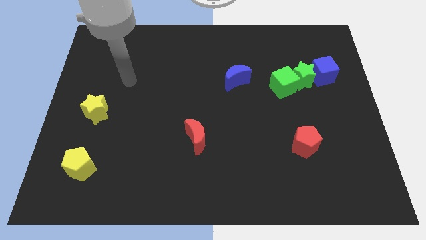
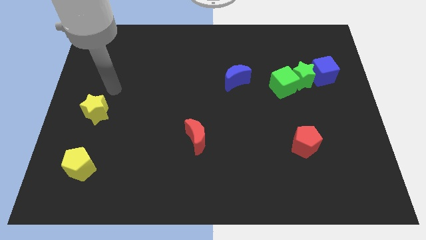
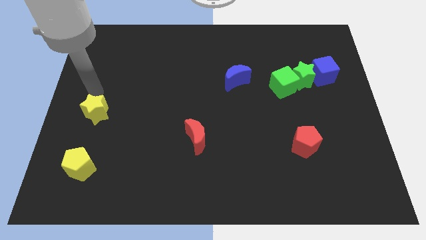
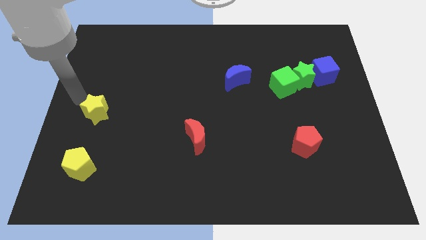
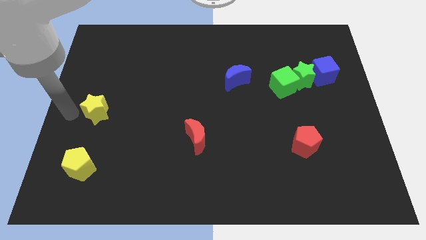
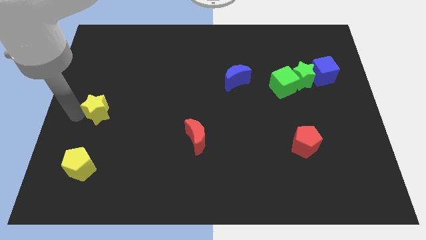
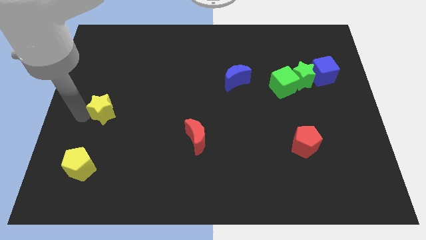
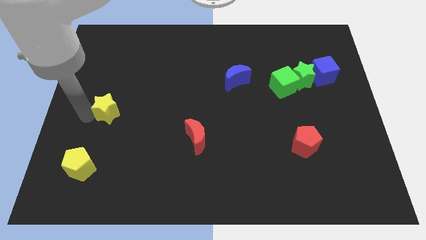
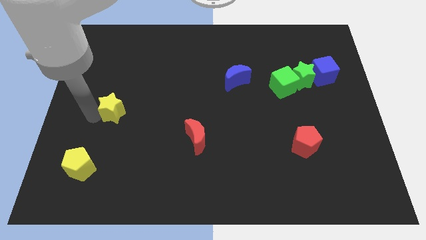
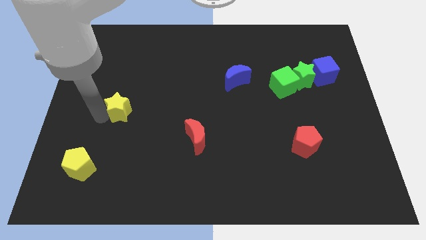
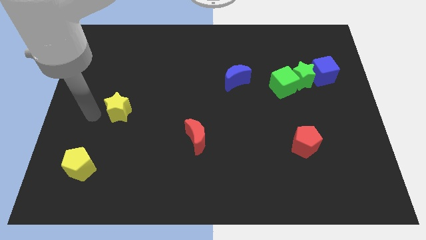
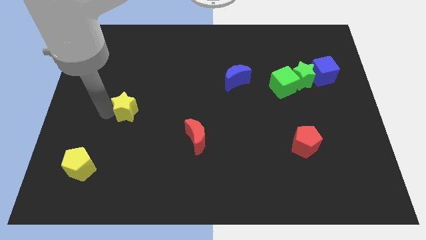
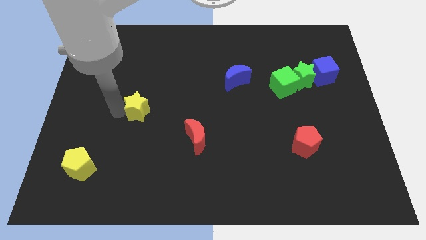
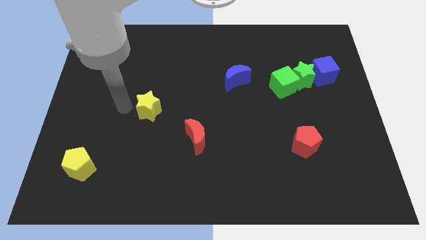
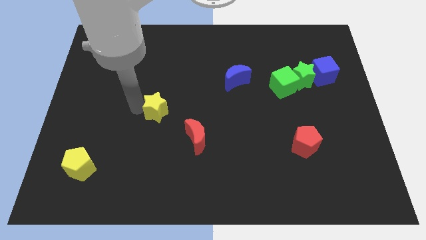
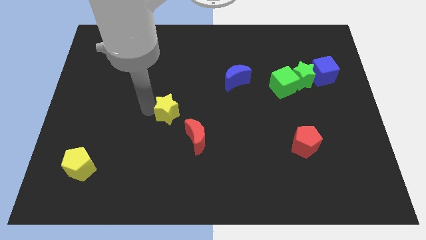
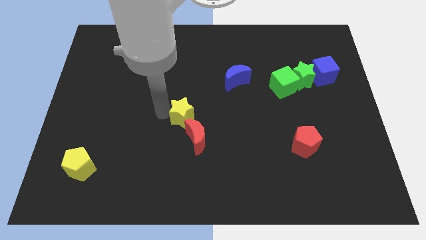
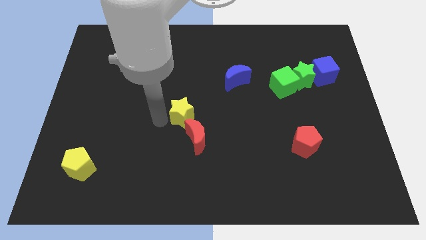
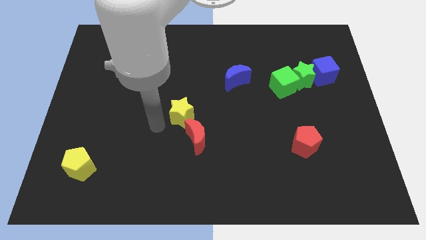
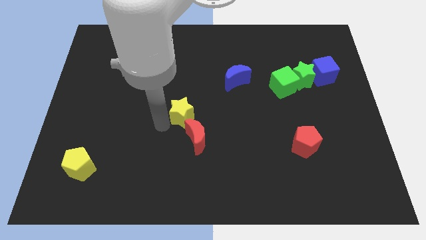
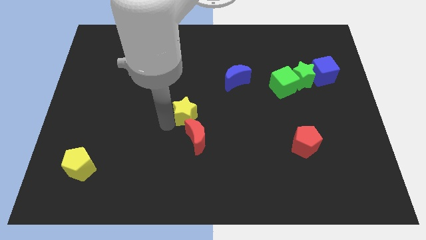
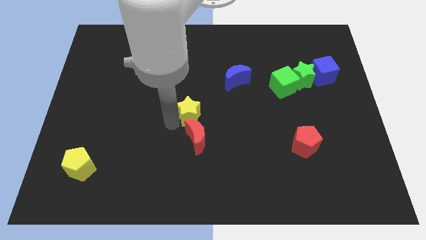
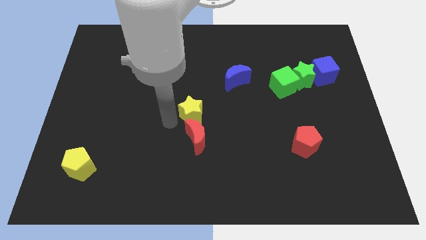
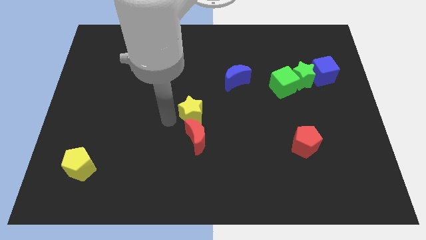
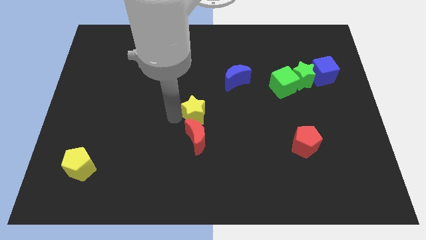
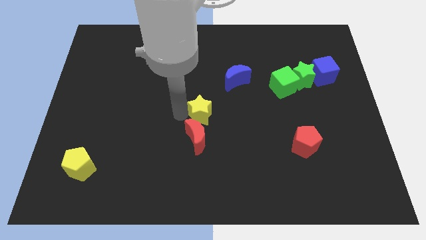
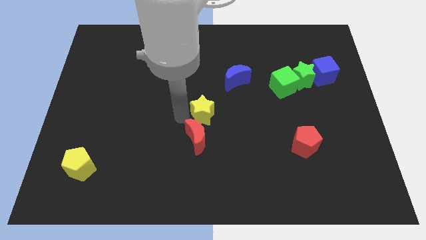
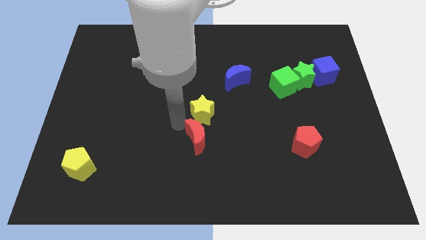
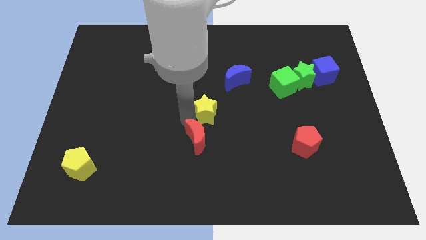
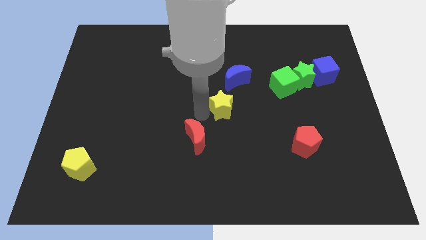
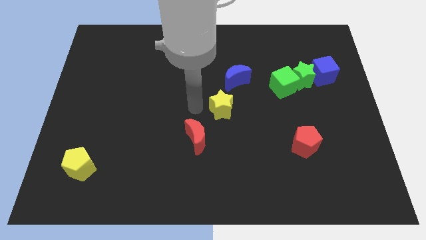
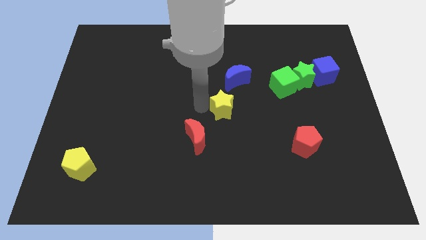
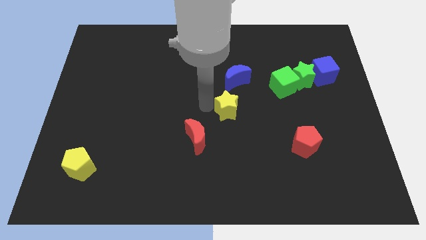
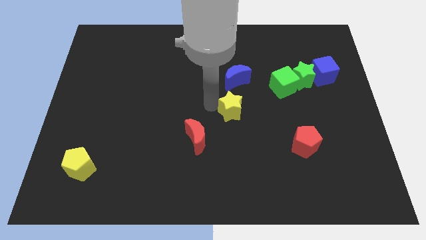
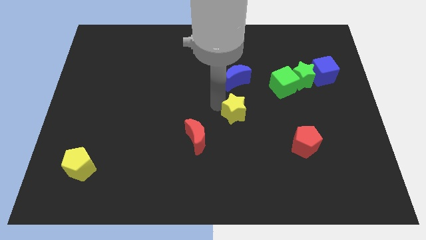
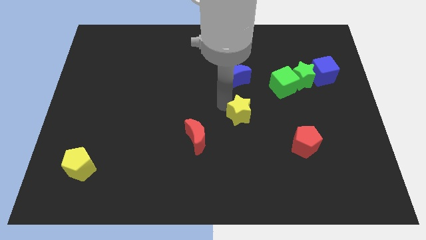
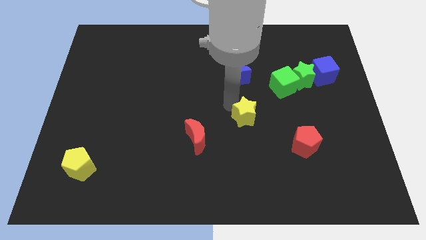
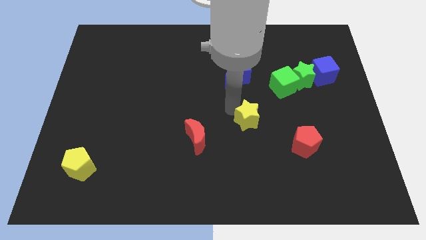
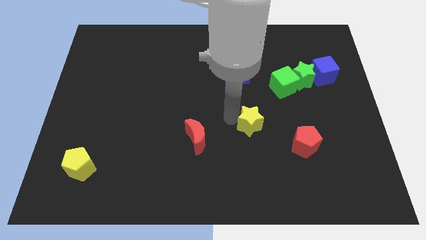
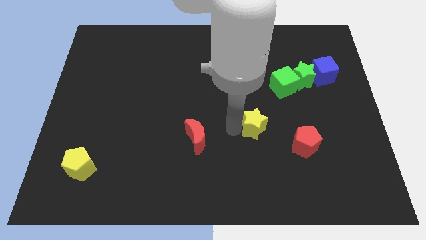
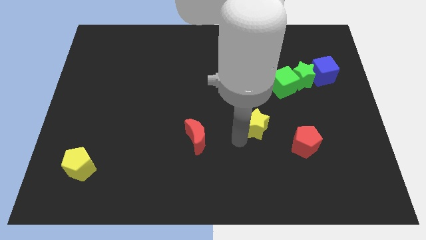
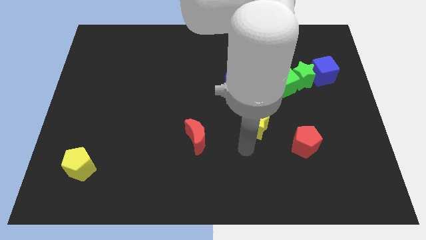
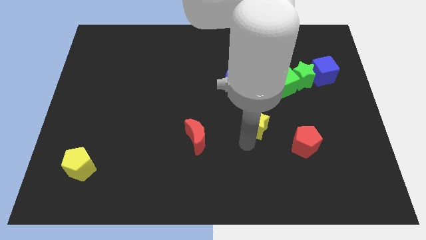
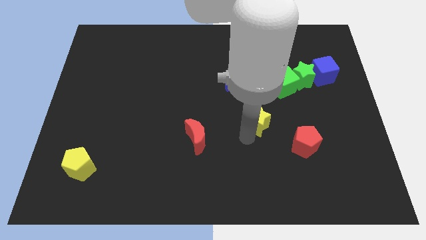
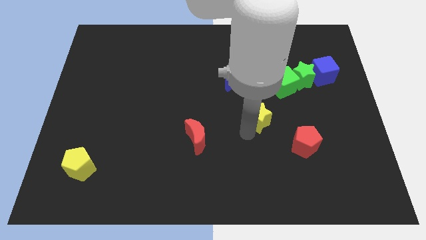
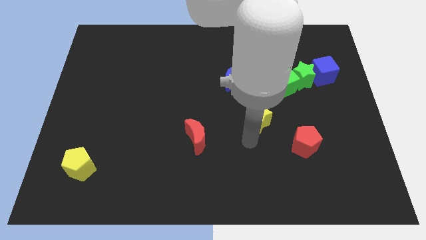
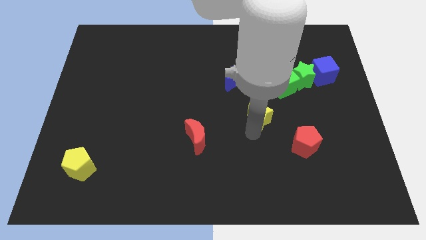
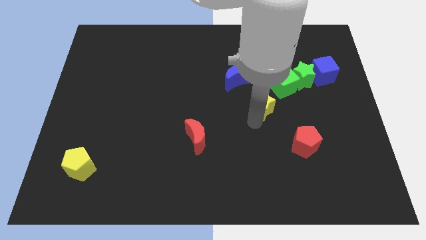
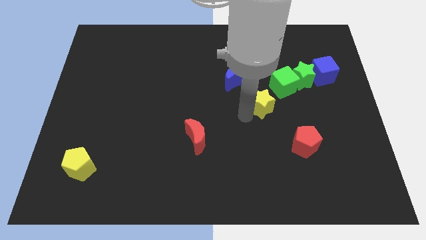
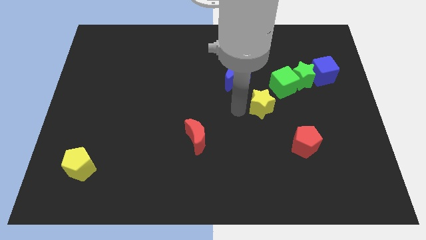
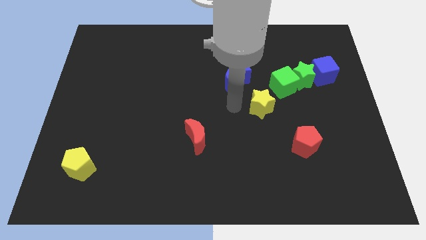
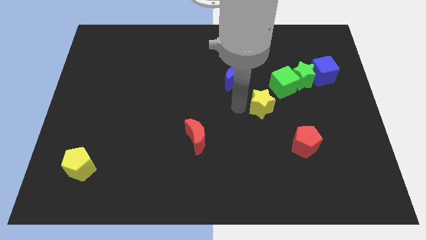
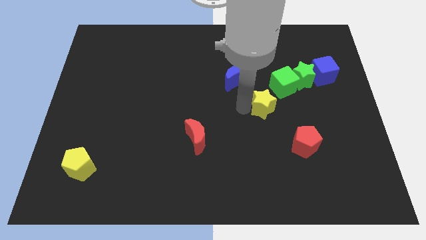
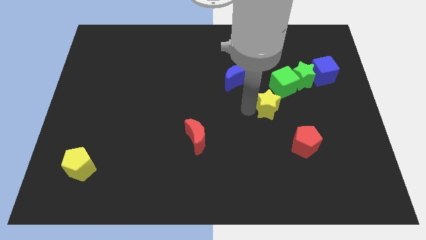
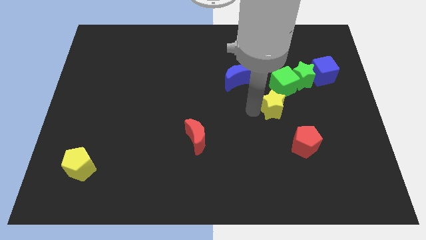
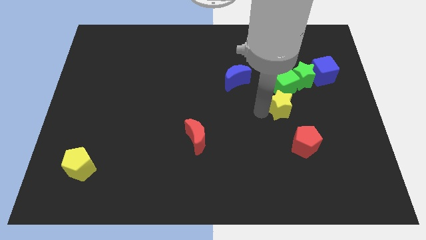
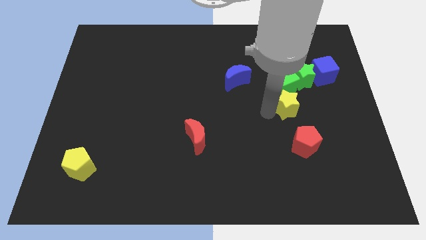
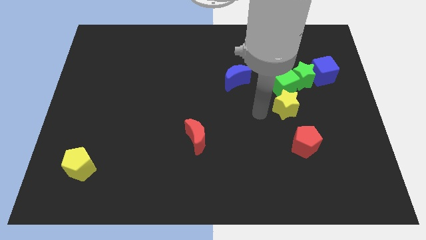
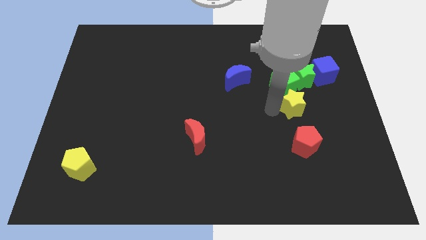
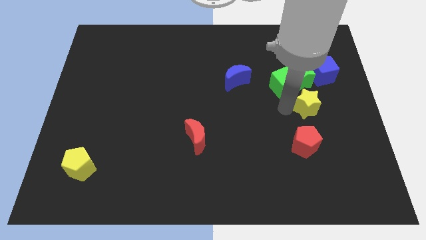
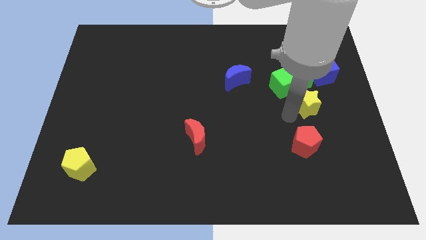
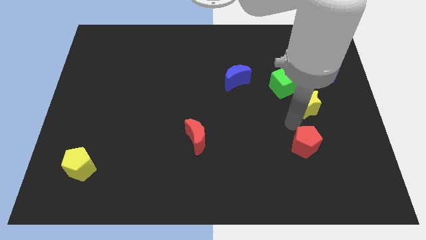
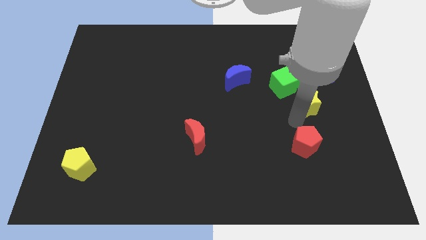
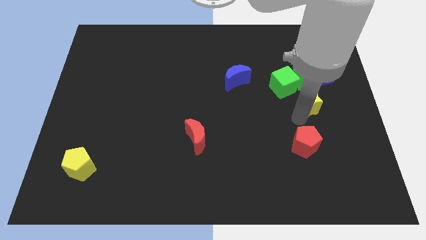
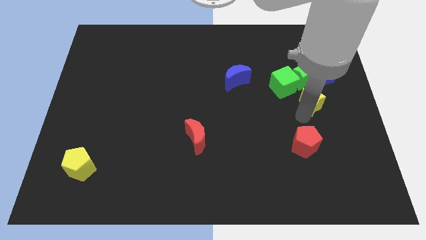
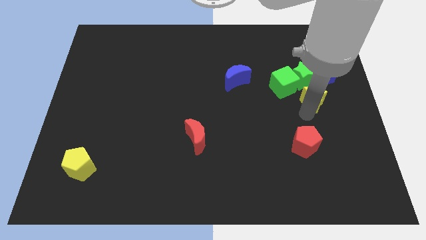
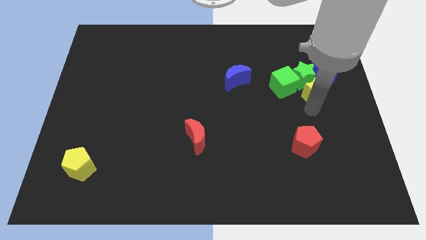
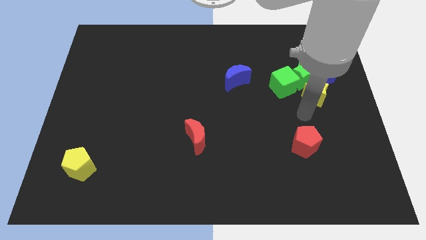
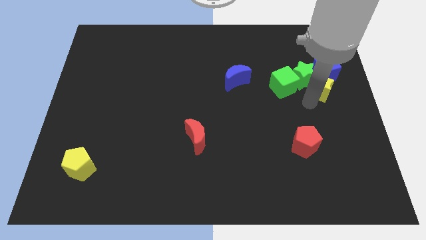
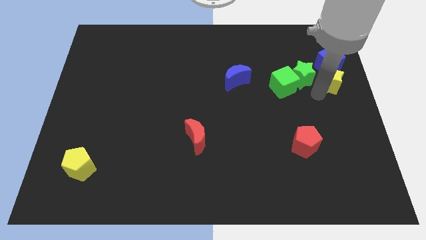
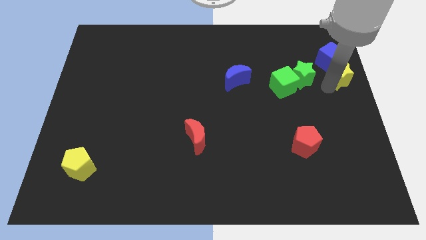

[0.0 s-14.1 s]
slide the yellow star next to the blue cube
